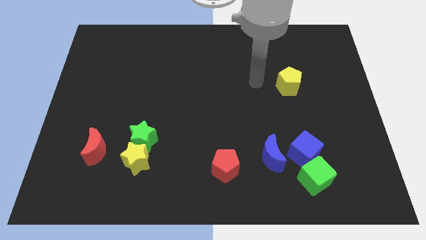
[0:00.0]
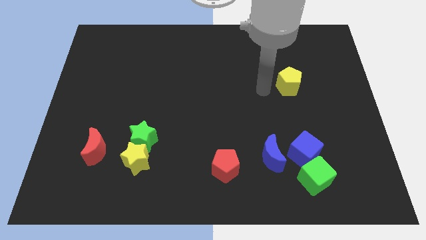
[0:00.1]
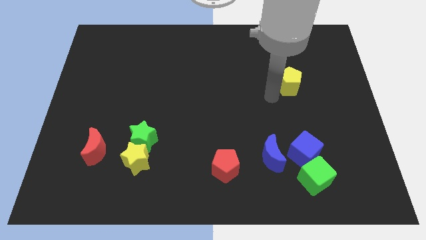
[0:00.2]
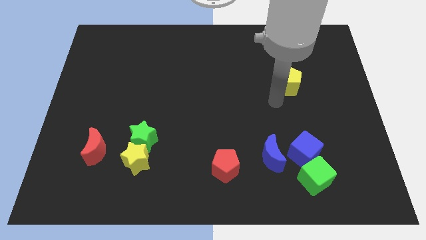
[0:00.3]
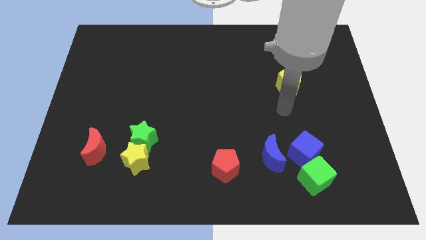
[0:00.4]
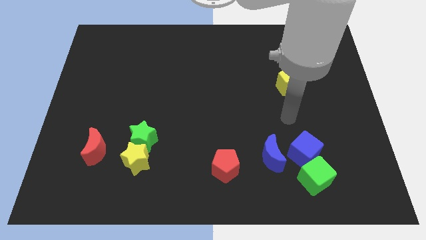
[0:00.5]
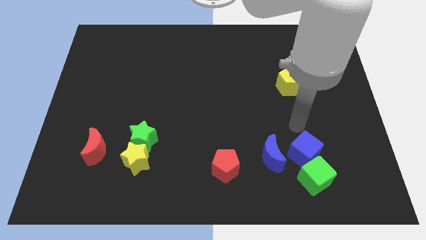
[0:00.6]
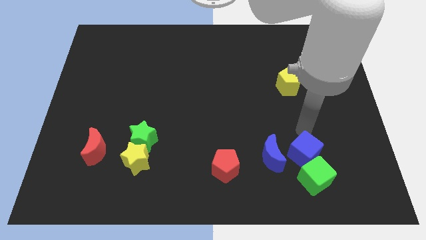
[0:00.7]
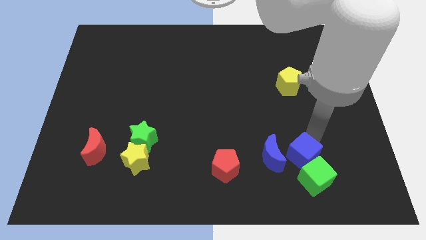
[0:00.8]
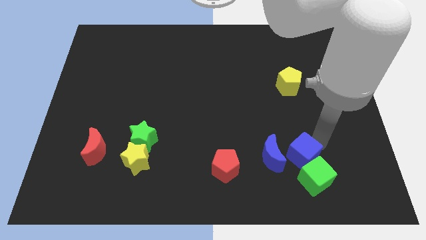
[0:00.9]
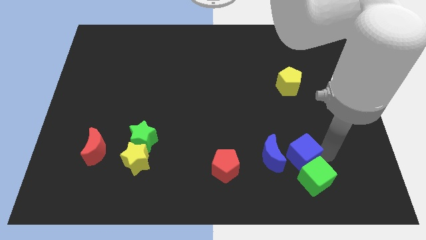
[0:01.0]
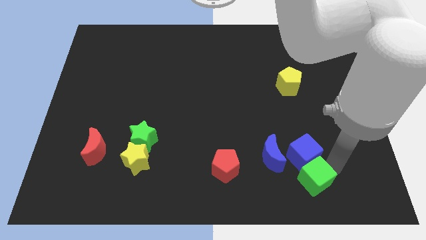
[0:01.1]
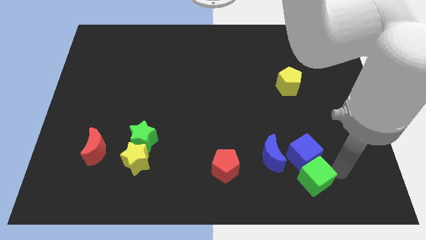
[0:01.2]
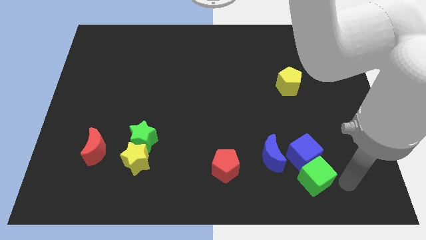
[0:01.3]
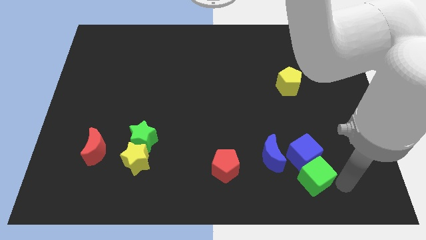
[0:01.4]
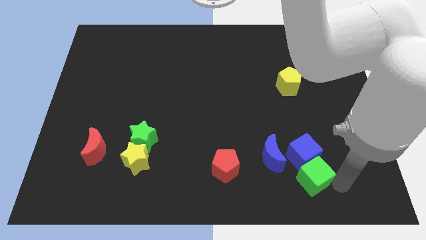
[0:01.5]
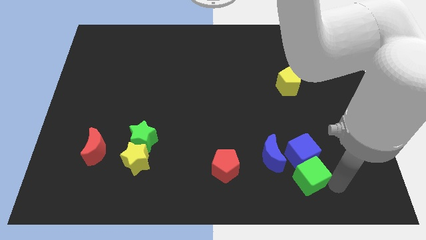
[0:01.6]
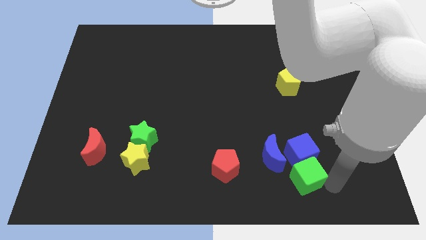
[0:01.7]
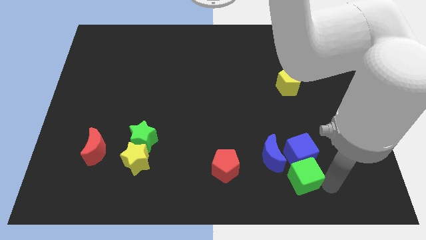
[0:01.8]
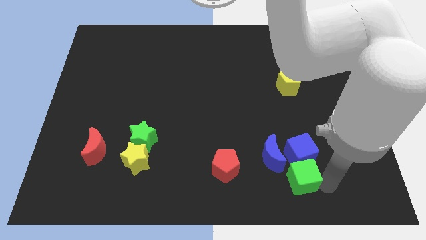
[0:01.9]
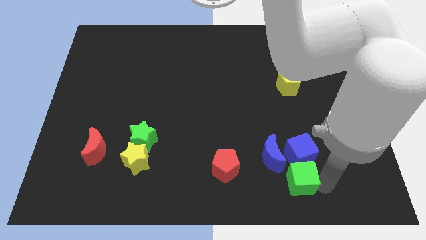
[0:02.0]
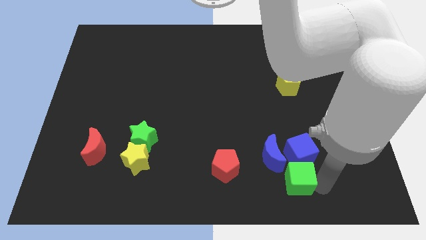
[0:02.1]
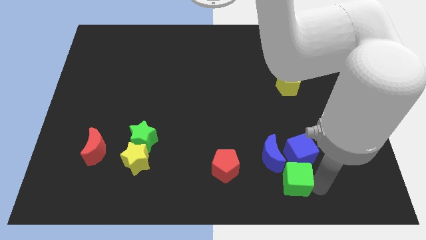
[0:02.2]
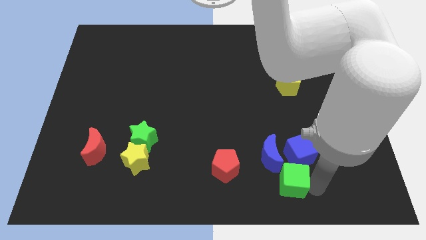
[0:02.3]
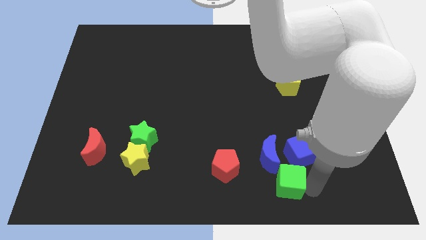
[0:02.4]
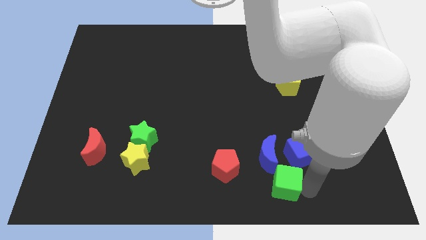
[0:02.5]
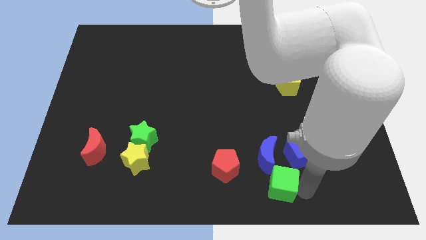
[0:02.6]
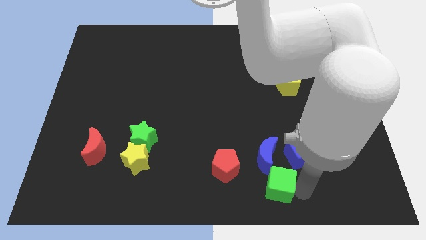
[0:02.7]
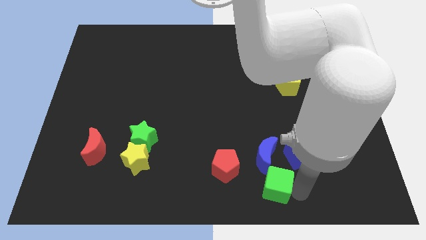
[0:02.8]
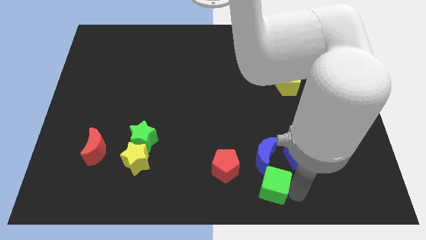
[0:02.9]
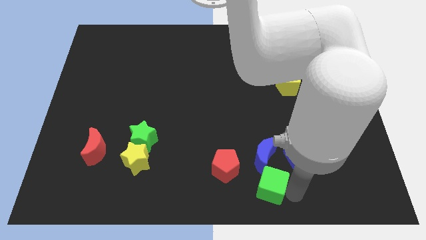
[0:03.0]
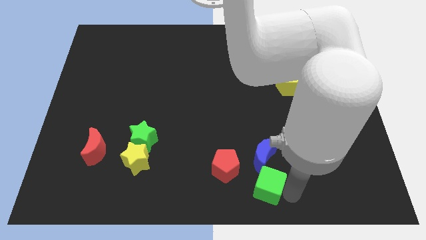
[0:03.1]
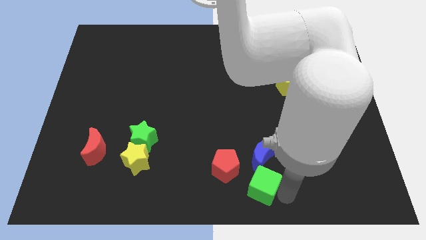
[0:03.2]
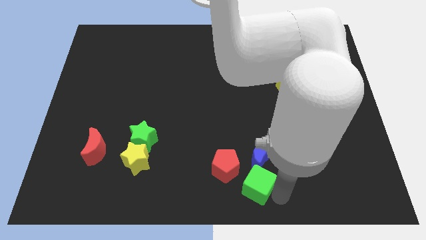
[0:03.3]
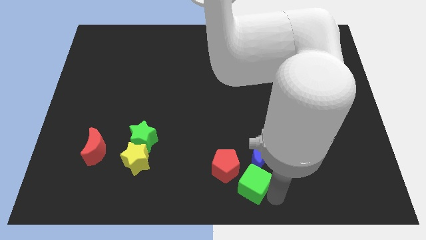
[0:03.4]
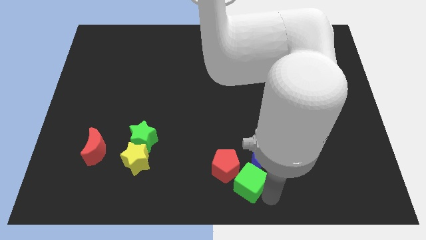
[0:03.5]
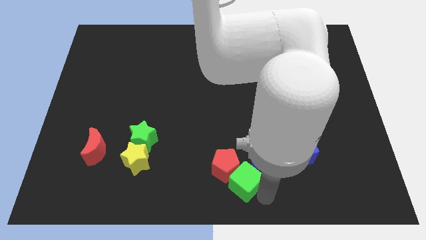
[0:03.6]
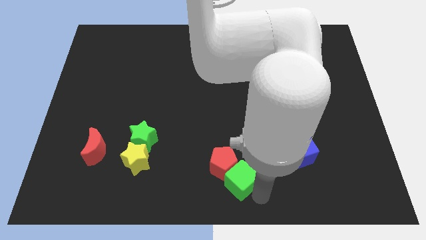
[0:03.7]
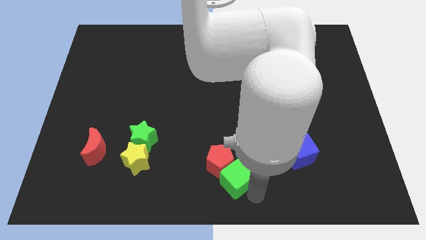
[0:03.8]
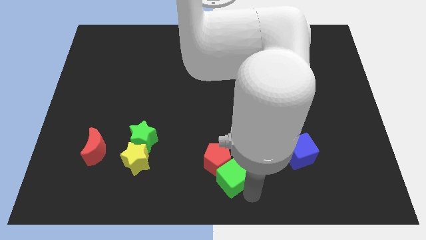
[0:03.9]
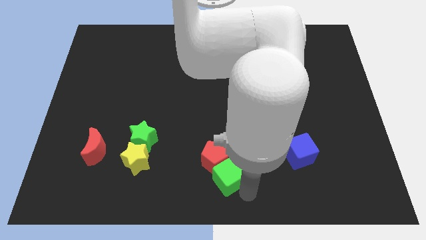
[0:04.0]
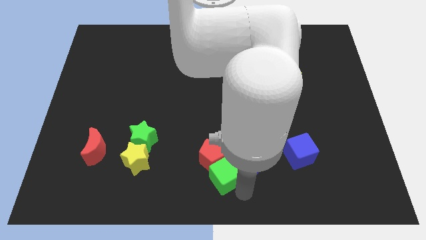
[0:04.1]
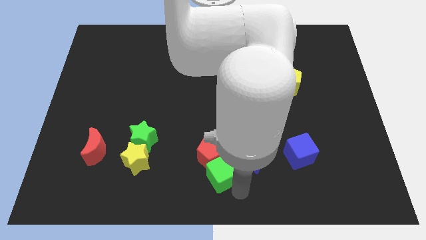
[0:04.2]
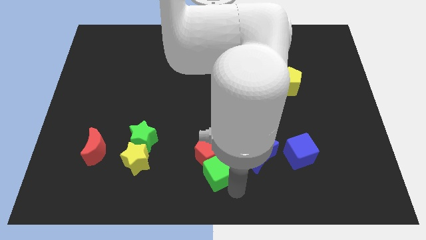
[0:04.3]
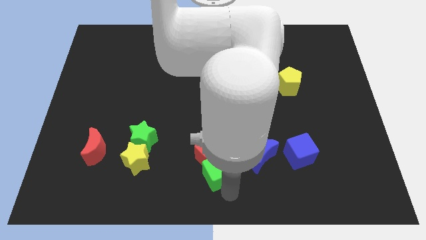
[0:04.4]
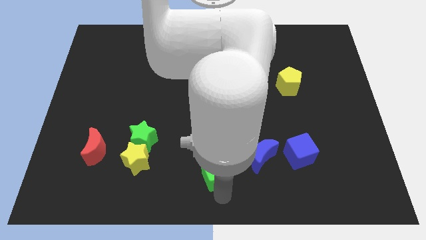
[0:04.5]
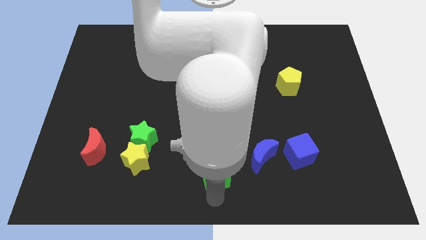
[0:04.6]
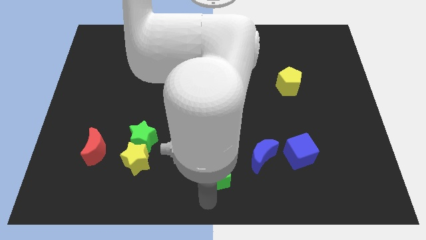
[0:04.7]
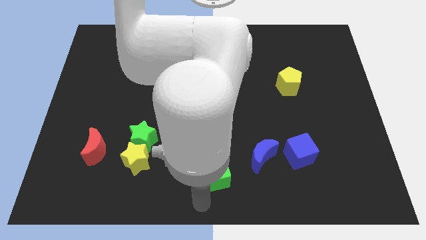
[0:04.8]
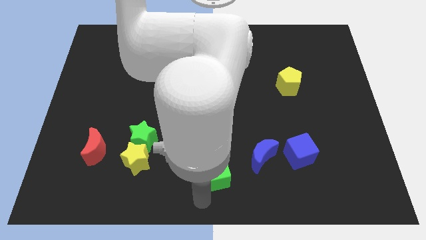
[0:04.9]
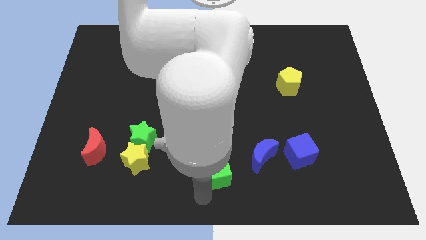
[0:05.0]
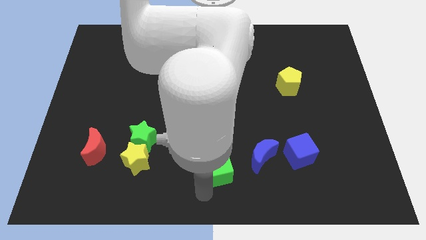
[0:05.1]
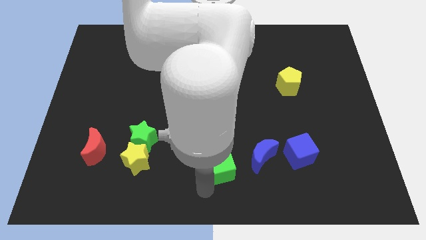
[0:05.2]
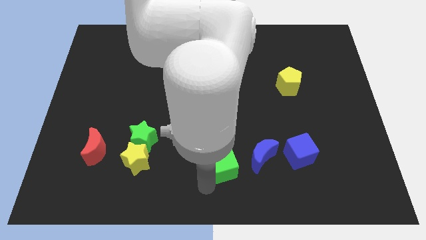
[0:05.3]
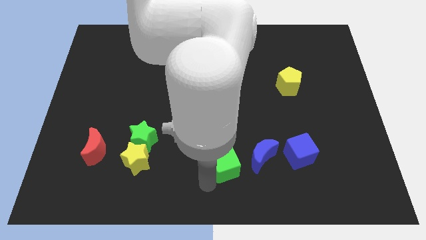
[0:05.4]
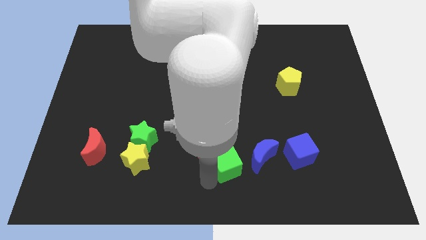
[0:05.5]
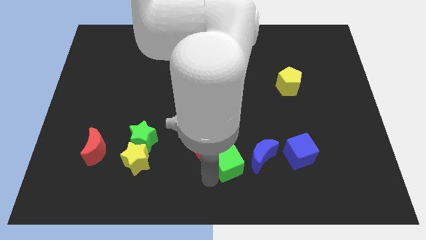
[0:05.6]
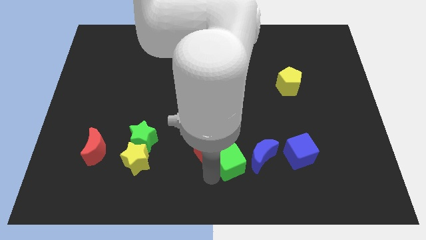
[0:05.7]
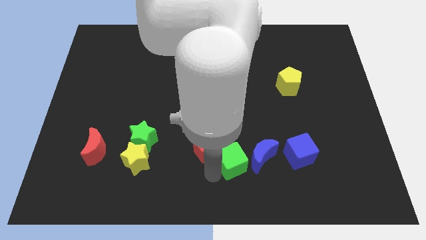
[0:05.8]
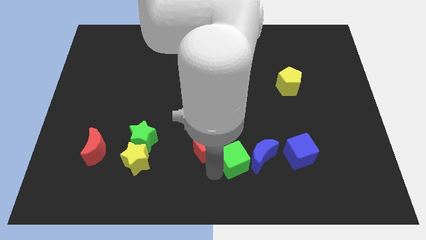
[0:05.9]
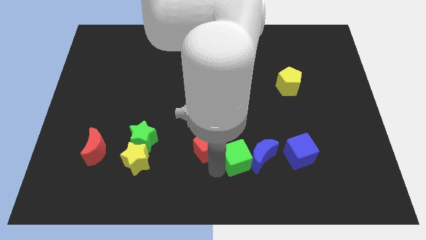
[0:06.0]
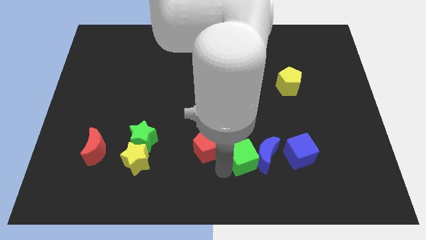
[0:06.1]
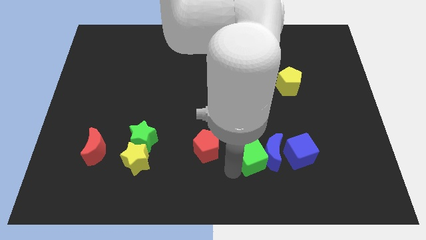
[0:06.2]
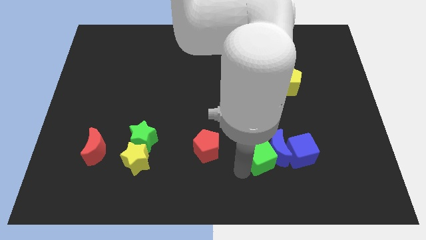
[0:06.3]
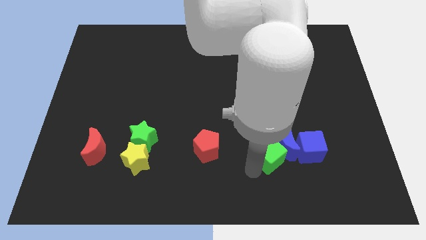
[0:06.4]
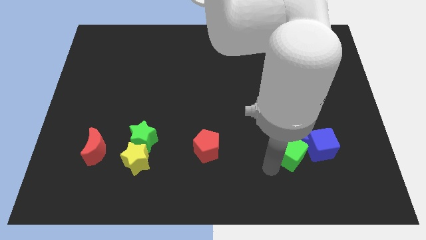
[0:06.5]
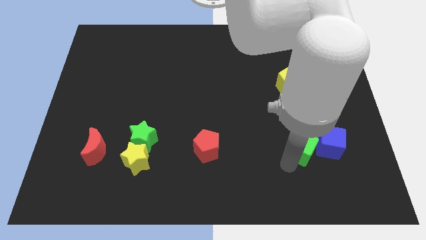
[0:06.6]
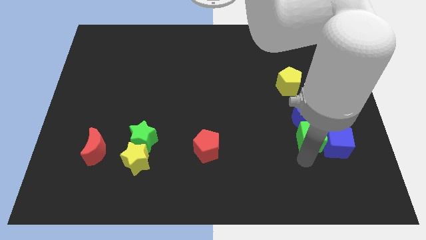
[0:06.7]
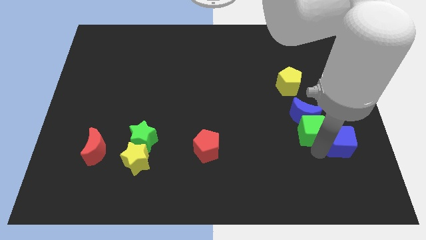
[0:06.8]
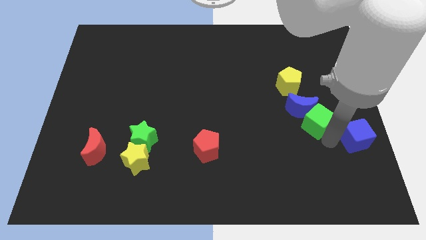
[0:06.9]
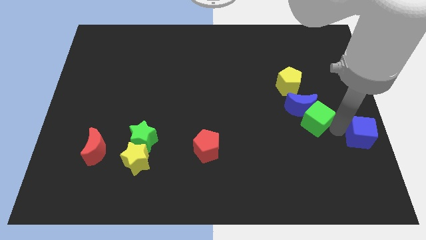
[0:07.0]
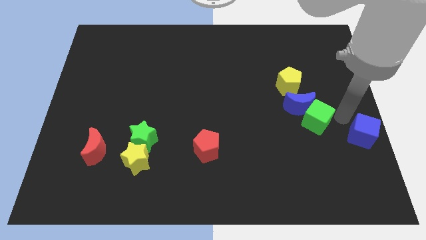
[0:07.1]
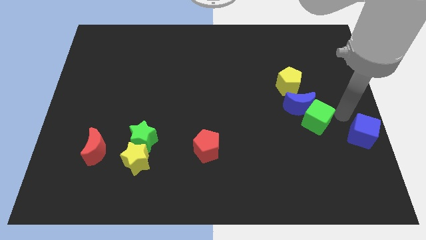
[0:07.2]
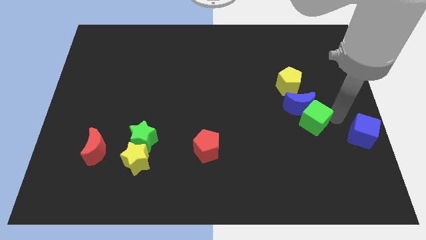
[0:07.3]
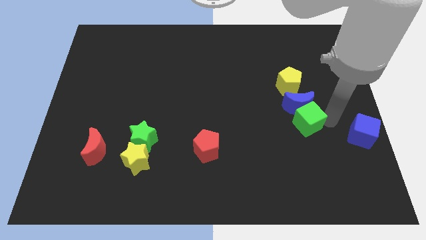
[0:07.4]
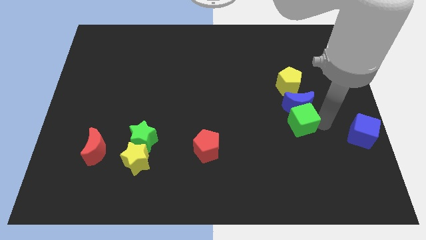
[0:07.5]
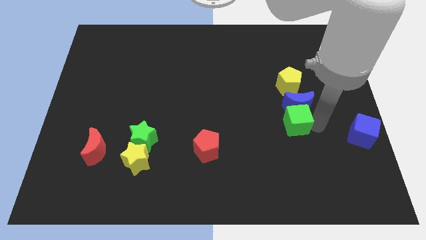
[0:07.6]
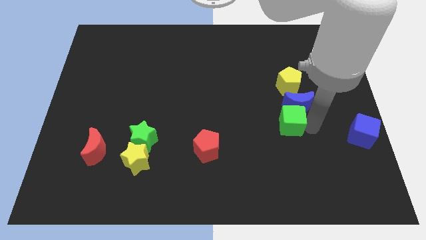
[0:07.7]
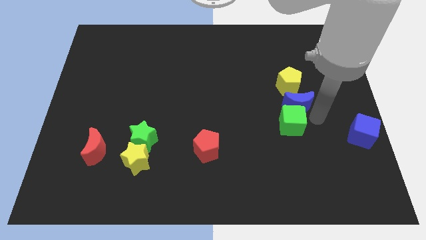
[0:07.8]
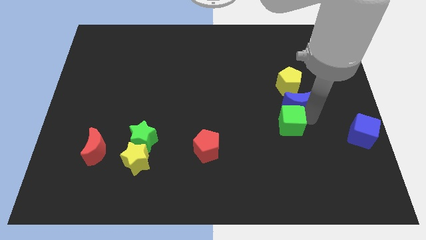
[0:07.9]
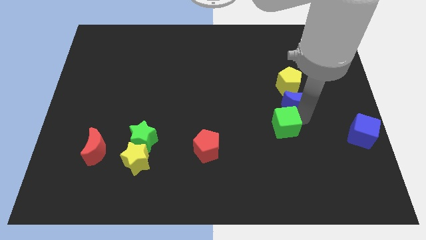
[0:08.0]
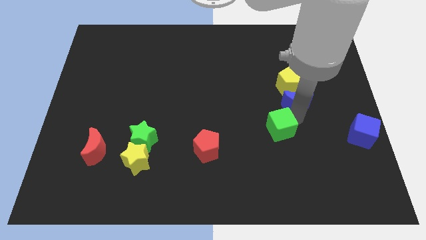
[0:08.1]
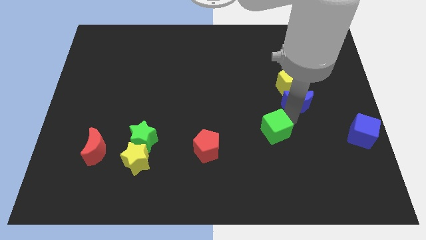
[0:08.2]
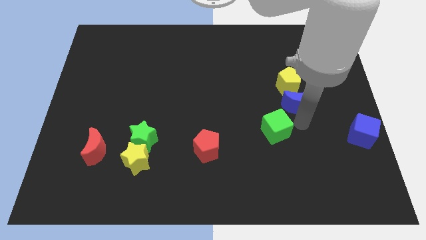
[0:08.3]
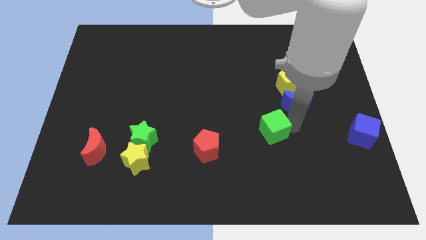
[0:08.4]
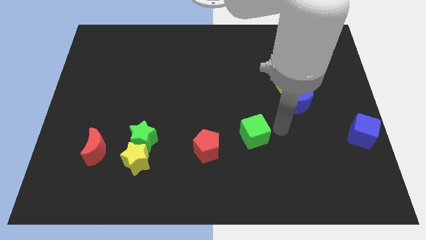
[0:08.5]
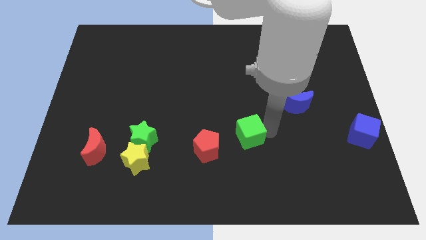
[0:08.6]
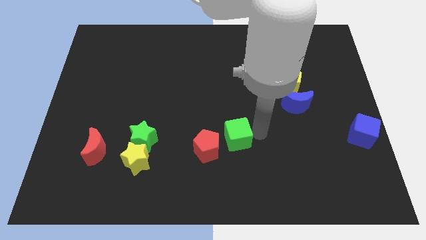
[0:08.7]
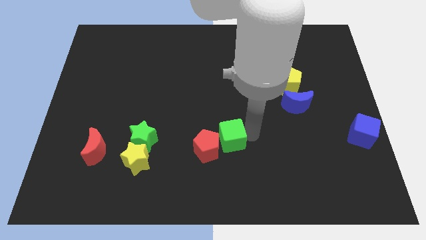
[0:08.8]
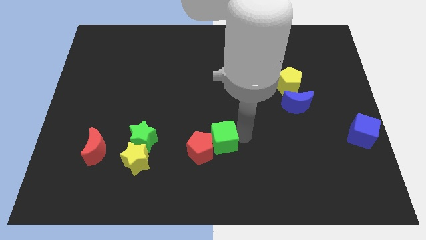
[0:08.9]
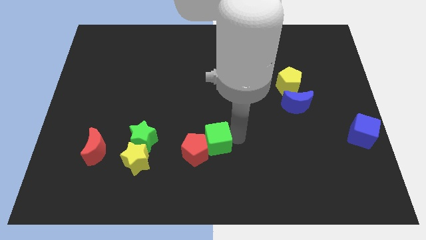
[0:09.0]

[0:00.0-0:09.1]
push the green cube to the right of the green star
